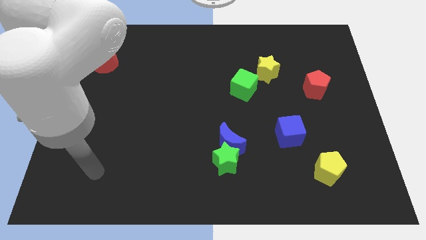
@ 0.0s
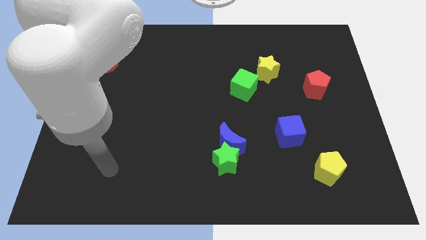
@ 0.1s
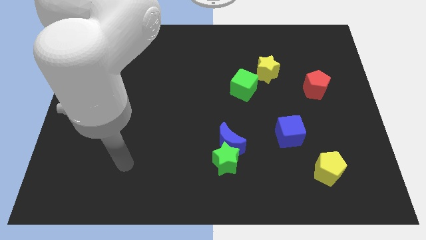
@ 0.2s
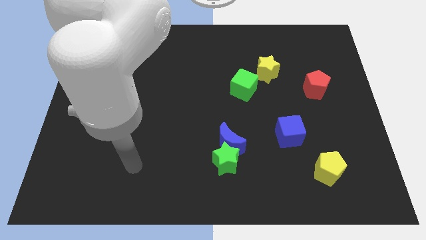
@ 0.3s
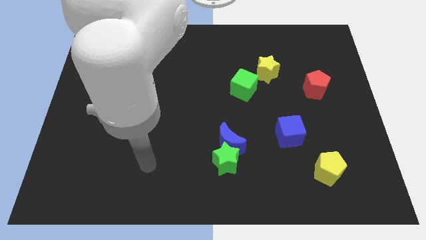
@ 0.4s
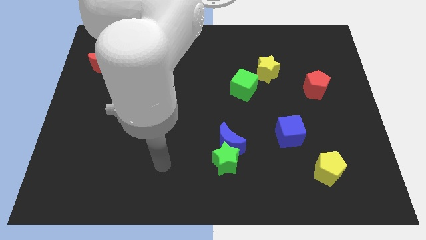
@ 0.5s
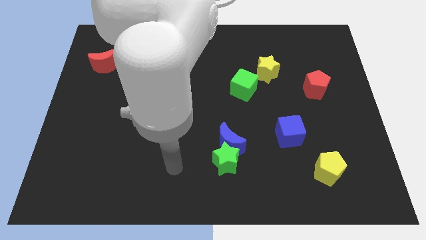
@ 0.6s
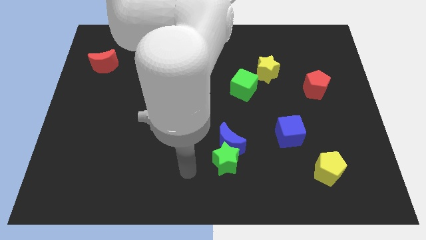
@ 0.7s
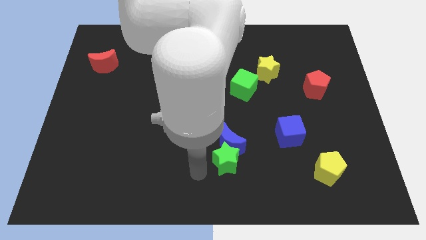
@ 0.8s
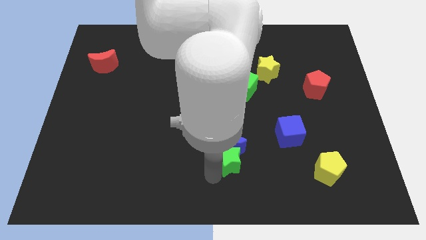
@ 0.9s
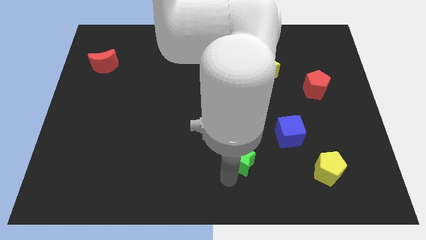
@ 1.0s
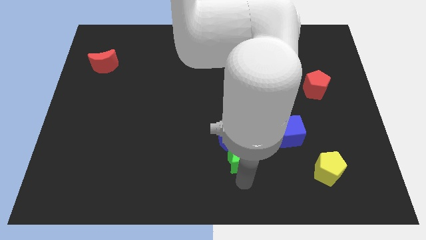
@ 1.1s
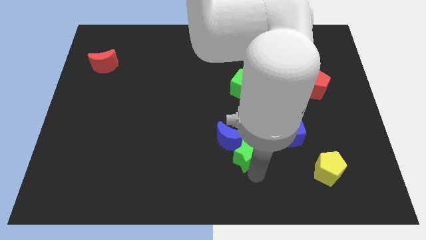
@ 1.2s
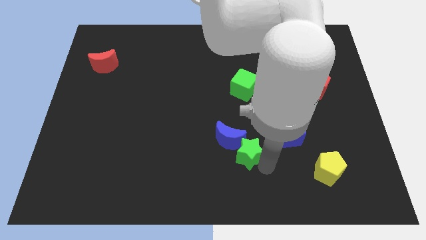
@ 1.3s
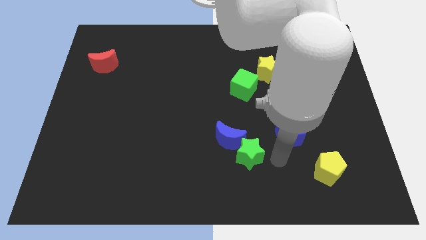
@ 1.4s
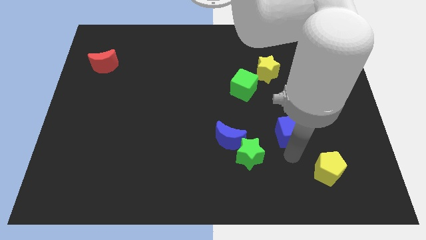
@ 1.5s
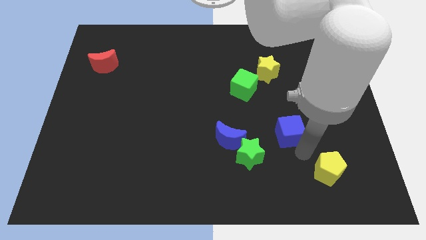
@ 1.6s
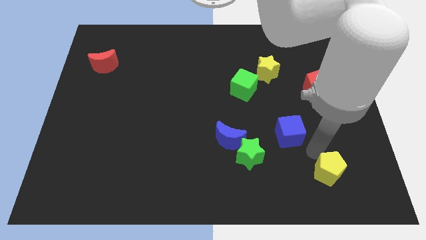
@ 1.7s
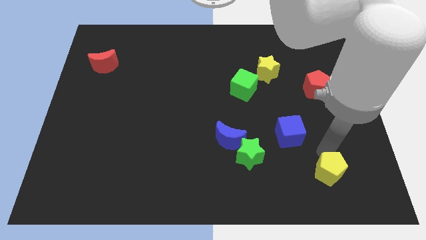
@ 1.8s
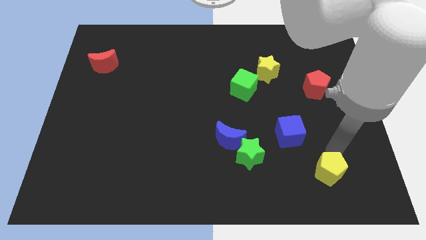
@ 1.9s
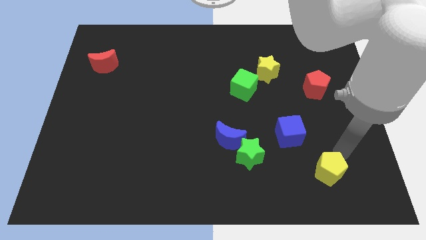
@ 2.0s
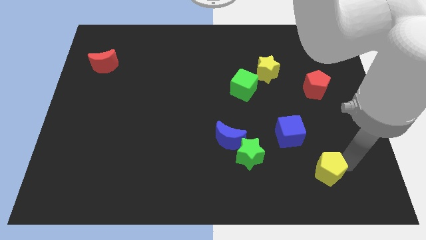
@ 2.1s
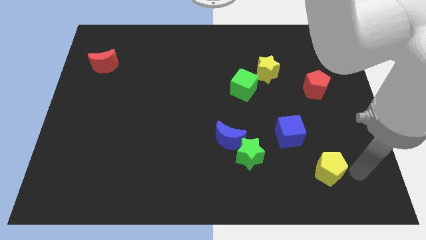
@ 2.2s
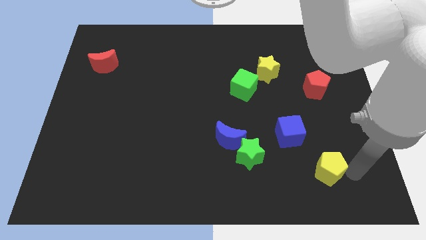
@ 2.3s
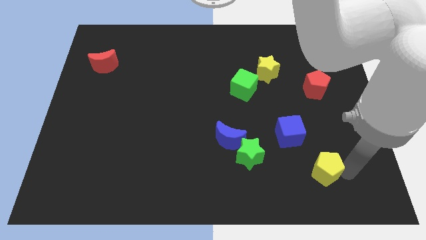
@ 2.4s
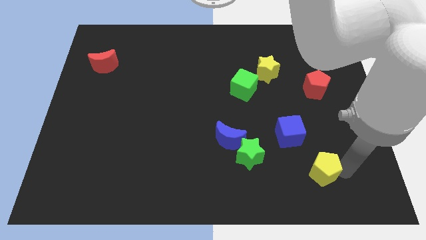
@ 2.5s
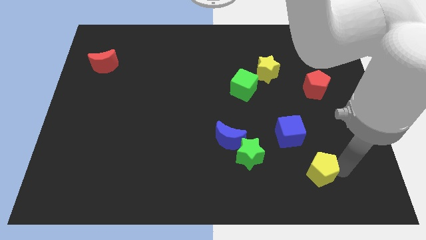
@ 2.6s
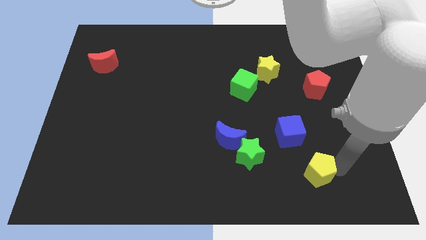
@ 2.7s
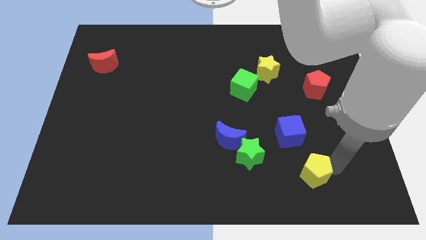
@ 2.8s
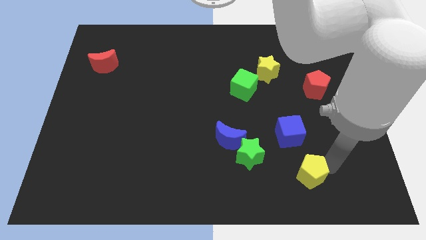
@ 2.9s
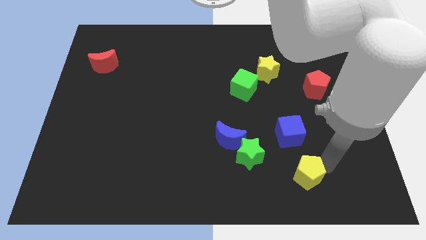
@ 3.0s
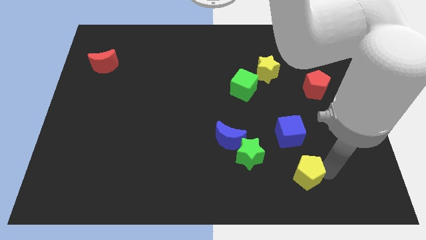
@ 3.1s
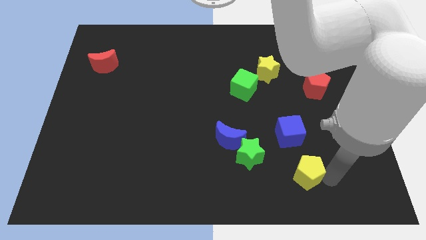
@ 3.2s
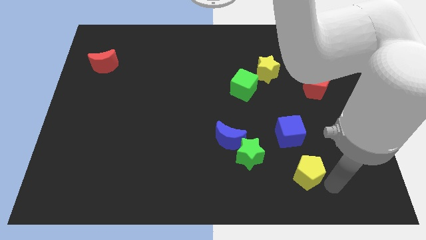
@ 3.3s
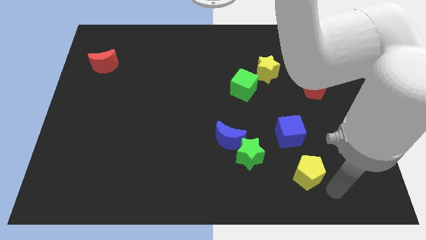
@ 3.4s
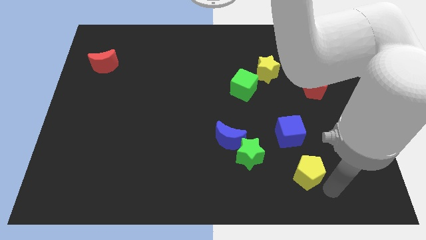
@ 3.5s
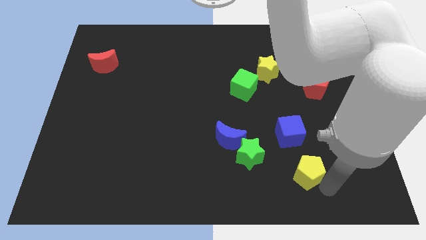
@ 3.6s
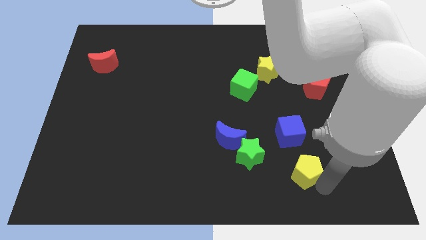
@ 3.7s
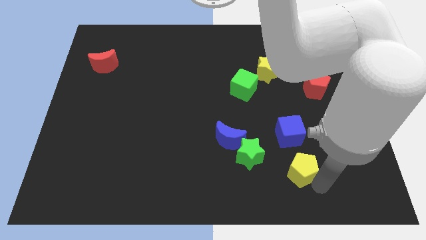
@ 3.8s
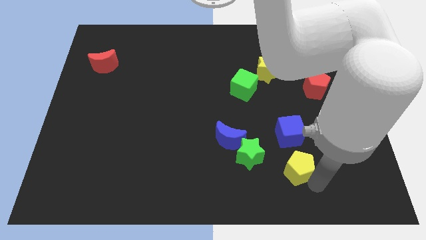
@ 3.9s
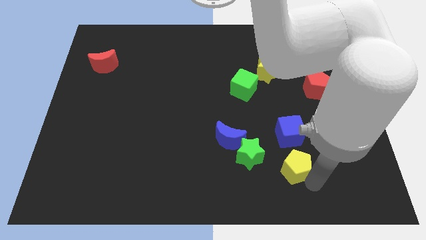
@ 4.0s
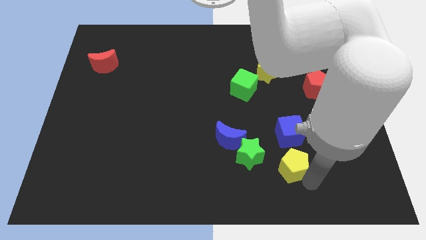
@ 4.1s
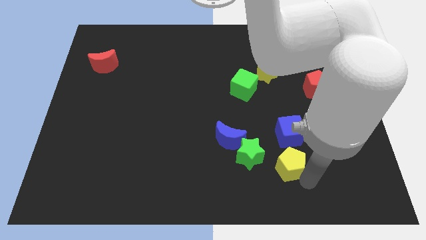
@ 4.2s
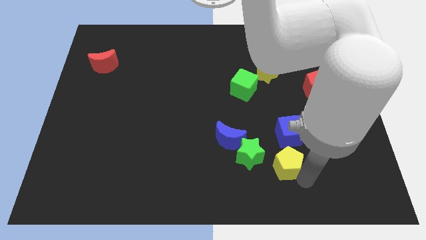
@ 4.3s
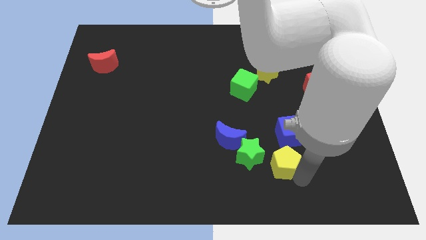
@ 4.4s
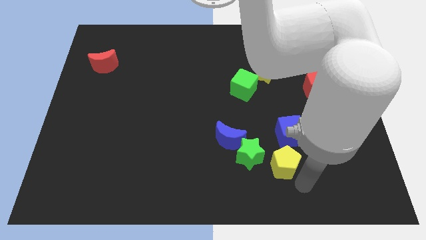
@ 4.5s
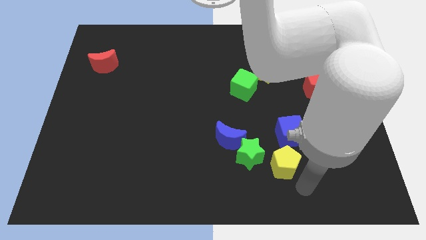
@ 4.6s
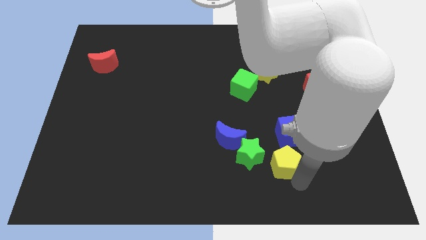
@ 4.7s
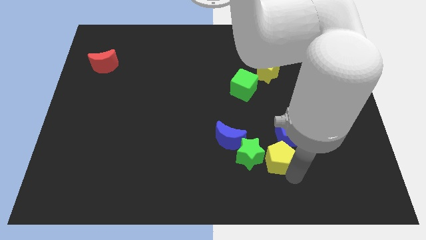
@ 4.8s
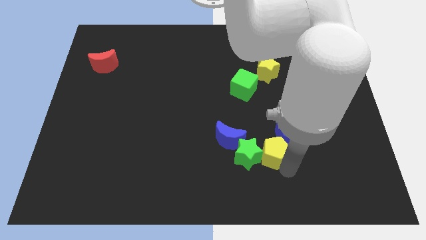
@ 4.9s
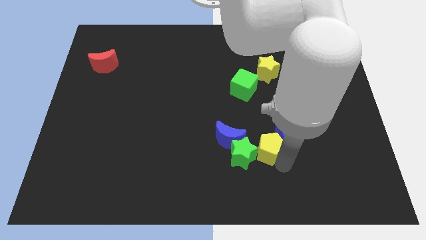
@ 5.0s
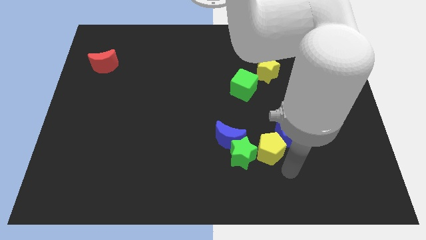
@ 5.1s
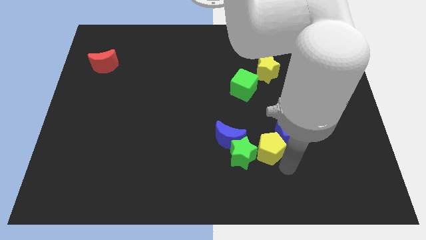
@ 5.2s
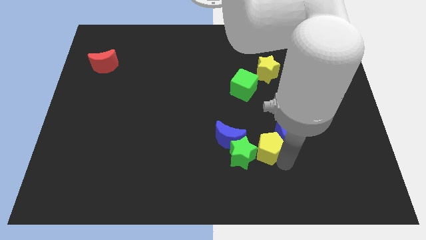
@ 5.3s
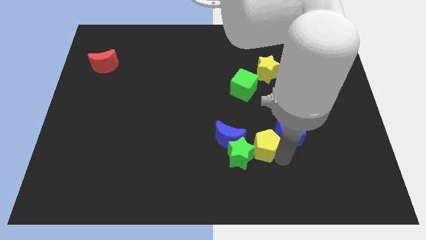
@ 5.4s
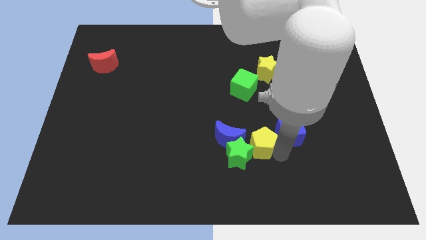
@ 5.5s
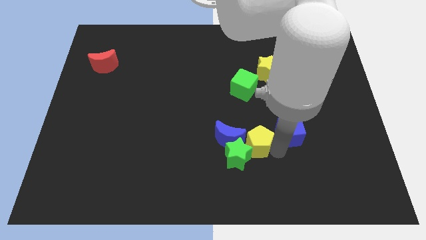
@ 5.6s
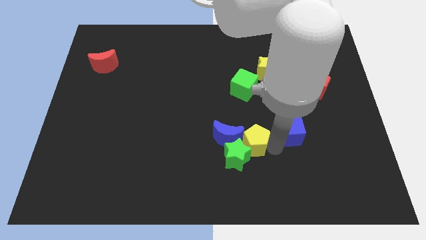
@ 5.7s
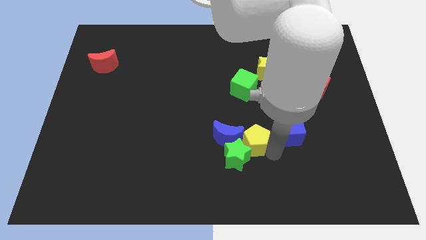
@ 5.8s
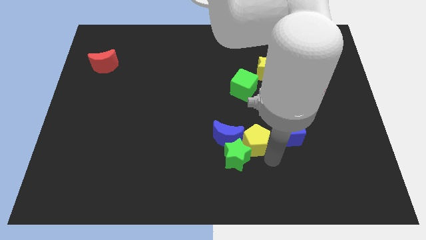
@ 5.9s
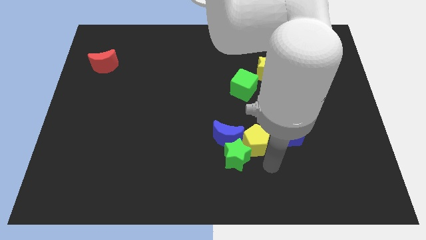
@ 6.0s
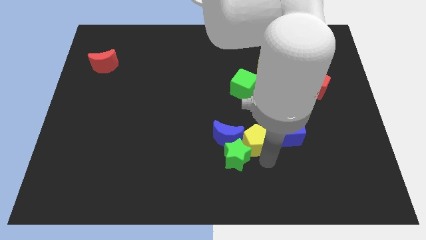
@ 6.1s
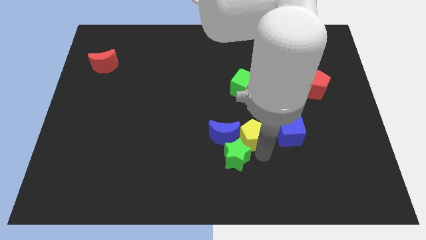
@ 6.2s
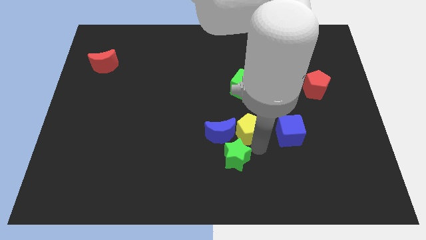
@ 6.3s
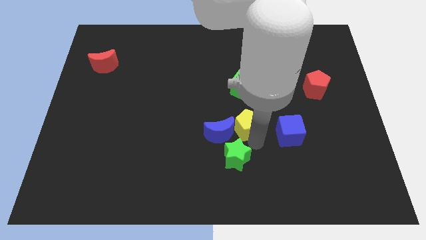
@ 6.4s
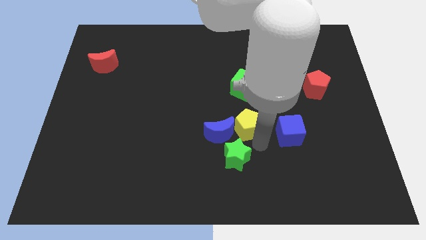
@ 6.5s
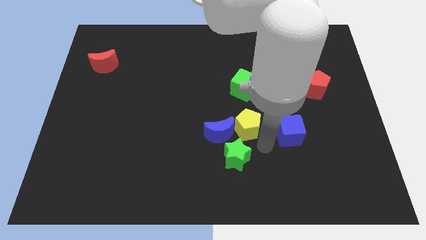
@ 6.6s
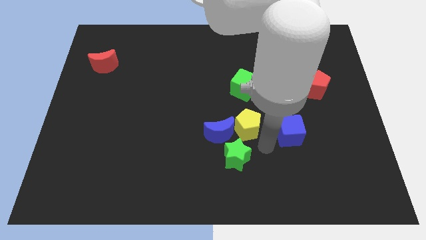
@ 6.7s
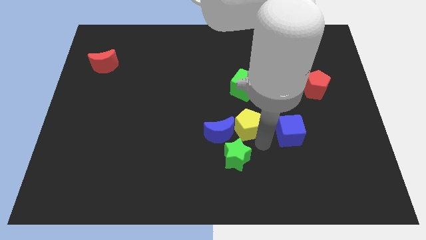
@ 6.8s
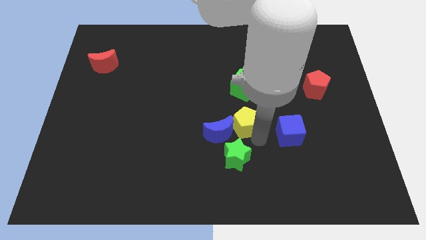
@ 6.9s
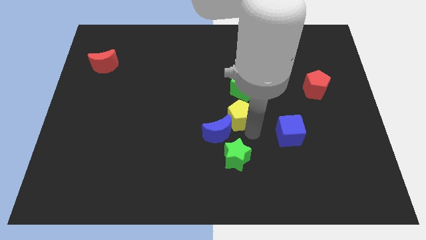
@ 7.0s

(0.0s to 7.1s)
slide the yellow pentagon to the top side of the blue moon
